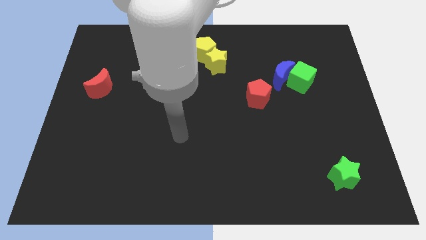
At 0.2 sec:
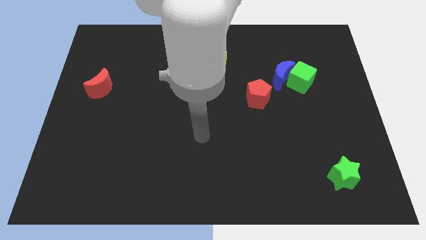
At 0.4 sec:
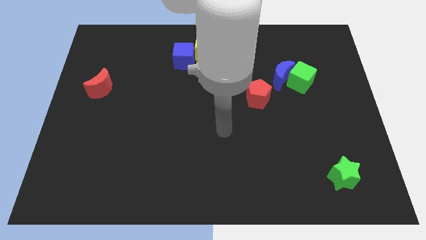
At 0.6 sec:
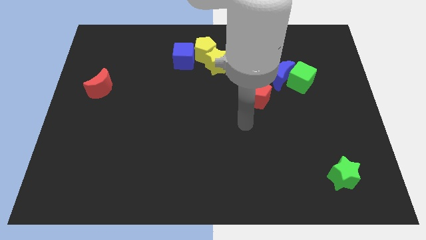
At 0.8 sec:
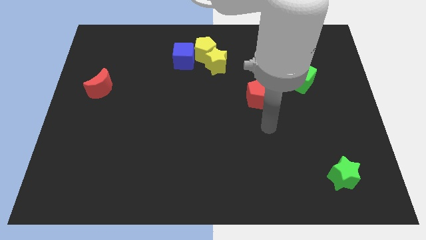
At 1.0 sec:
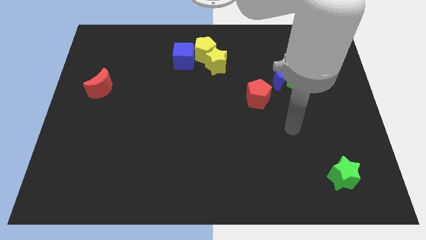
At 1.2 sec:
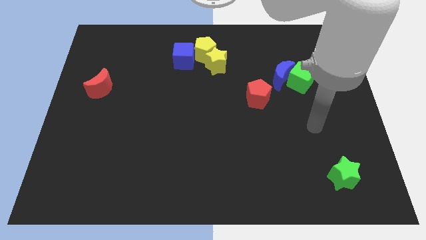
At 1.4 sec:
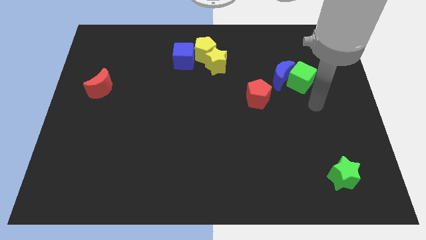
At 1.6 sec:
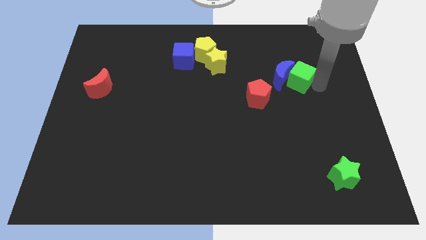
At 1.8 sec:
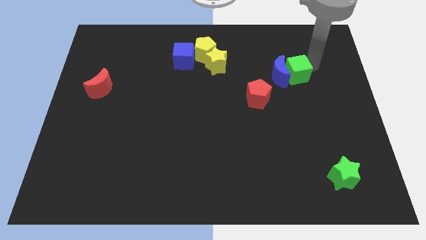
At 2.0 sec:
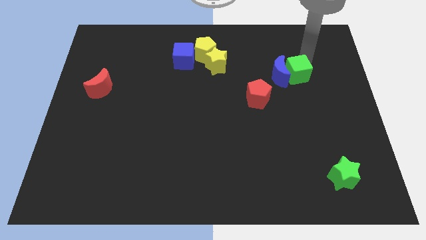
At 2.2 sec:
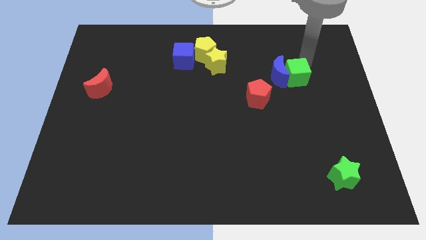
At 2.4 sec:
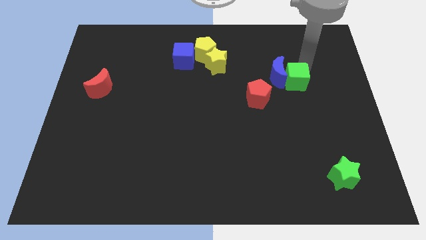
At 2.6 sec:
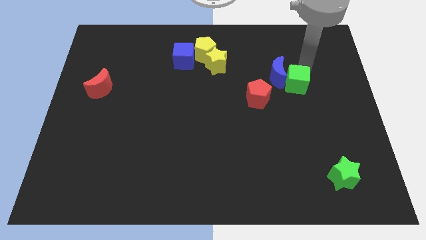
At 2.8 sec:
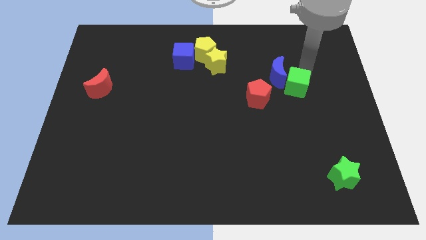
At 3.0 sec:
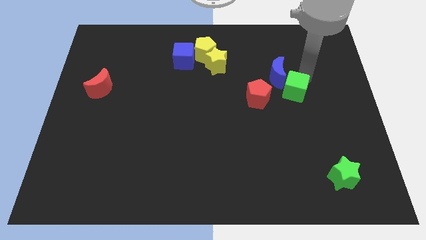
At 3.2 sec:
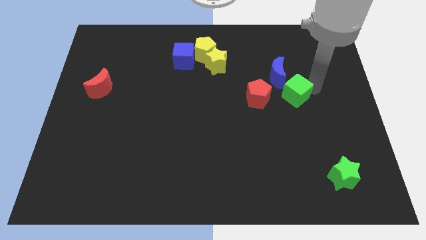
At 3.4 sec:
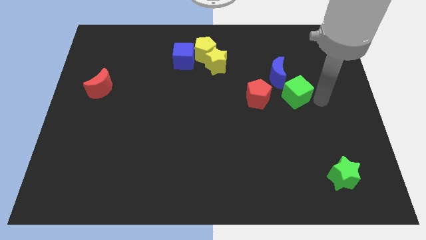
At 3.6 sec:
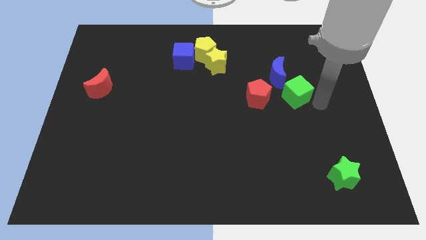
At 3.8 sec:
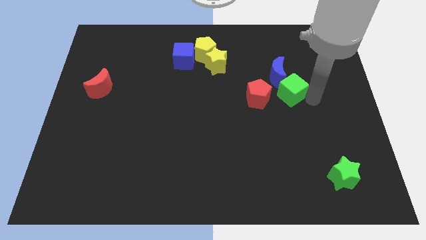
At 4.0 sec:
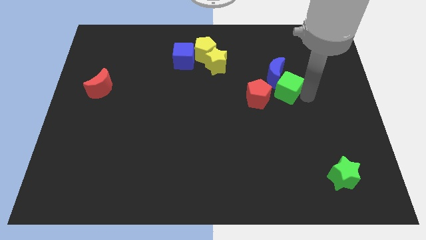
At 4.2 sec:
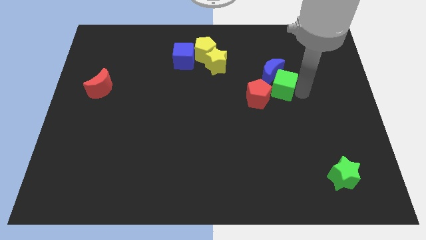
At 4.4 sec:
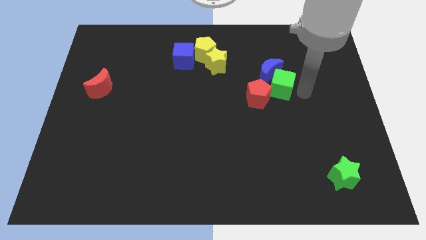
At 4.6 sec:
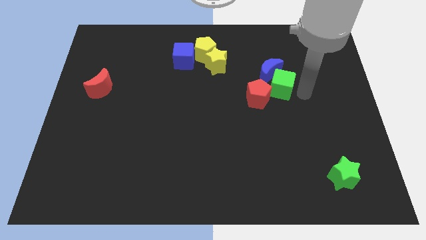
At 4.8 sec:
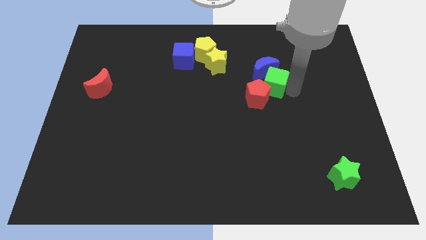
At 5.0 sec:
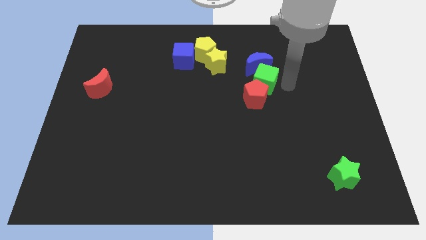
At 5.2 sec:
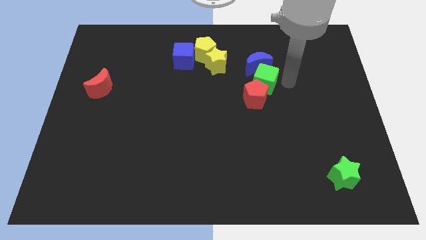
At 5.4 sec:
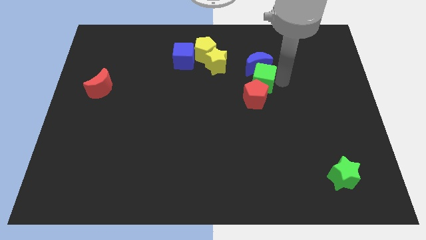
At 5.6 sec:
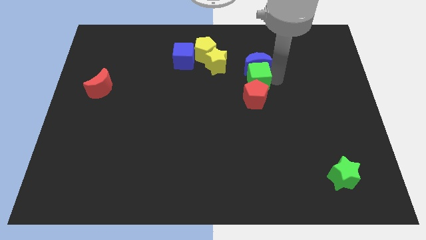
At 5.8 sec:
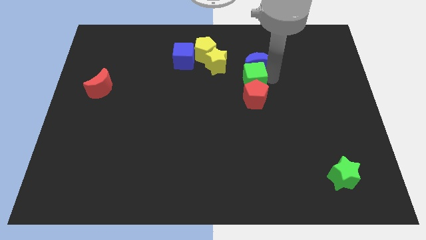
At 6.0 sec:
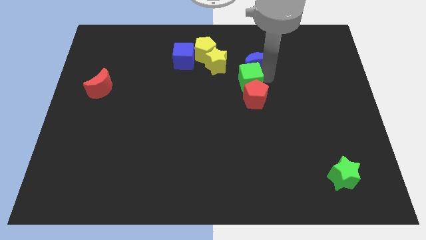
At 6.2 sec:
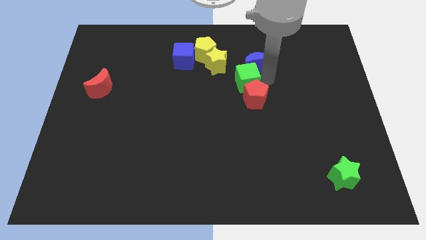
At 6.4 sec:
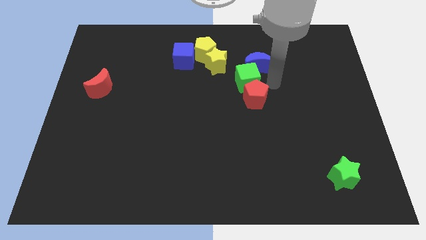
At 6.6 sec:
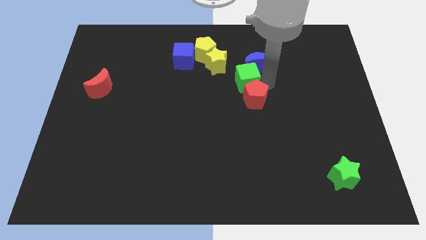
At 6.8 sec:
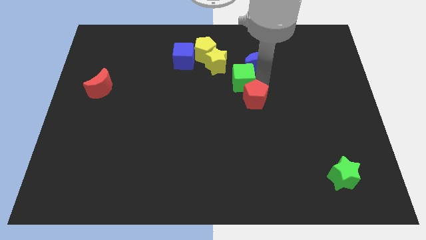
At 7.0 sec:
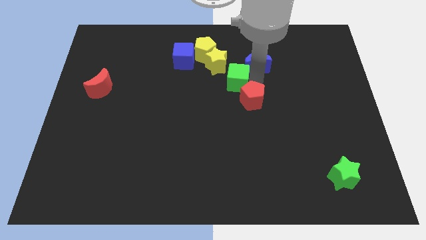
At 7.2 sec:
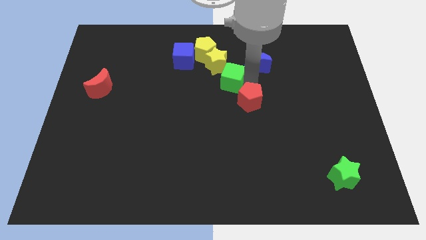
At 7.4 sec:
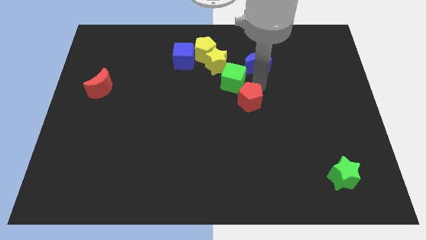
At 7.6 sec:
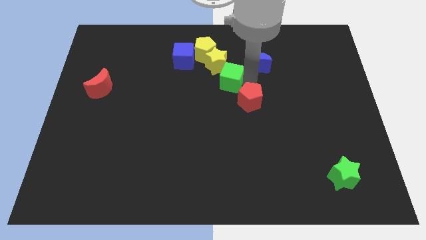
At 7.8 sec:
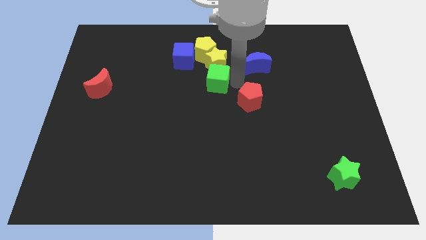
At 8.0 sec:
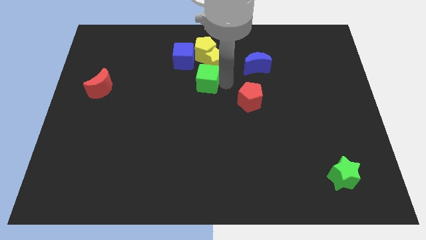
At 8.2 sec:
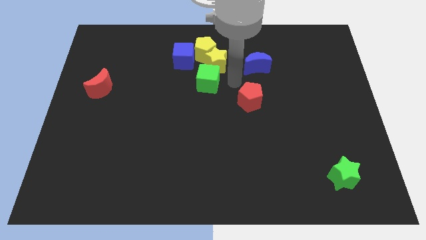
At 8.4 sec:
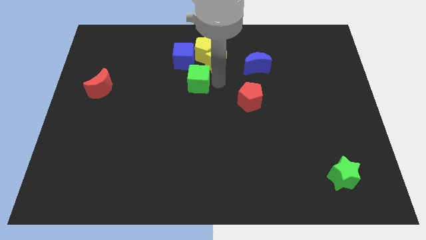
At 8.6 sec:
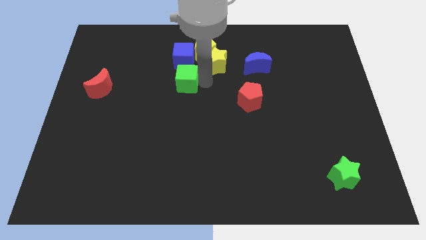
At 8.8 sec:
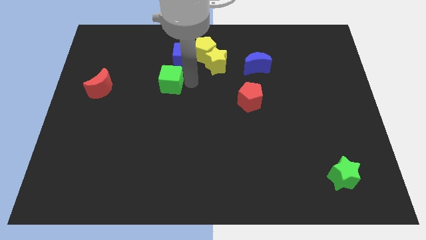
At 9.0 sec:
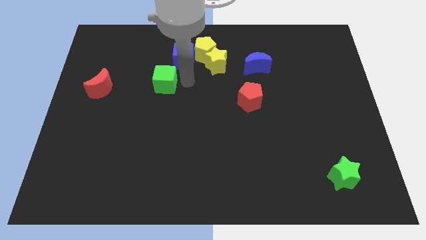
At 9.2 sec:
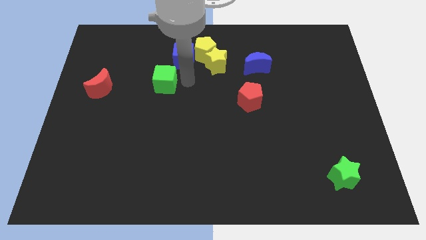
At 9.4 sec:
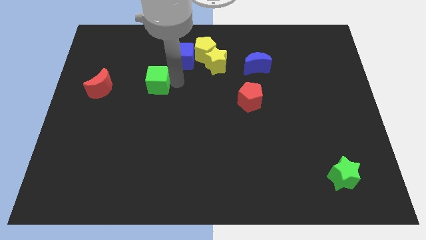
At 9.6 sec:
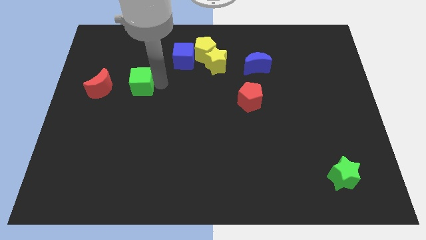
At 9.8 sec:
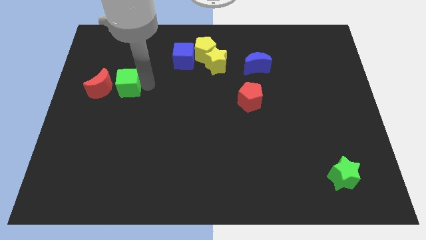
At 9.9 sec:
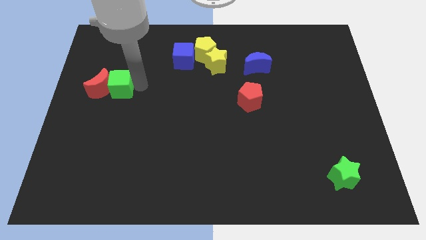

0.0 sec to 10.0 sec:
move the green cube to the red moon

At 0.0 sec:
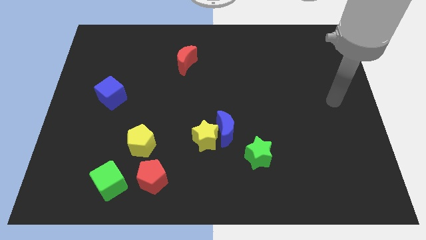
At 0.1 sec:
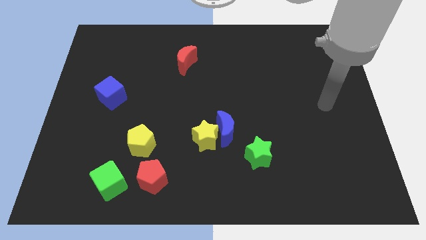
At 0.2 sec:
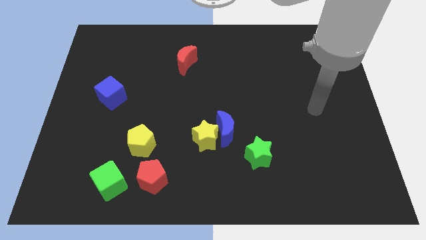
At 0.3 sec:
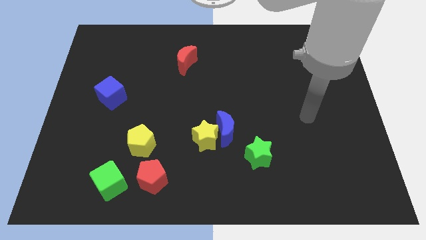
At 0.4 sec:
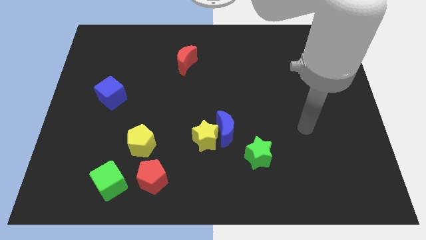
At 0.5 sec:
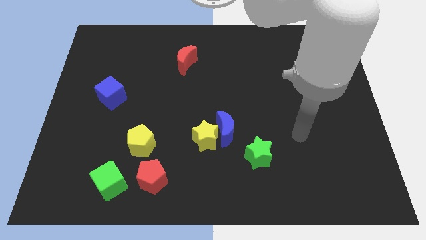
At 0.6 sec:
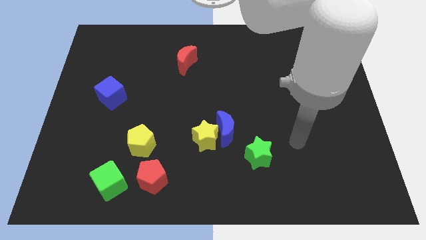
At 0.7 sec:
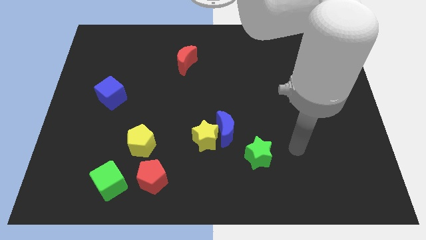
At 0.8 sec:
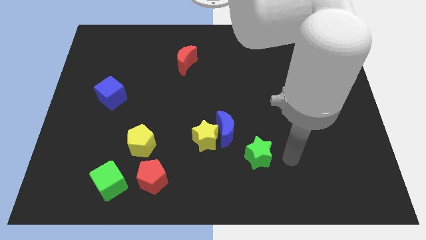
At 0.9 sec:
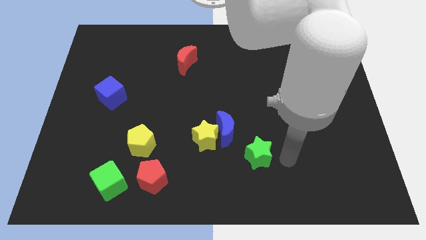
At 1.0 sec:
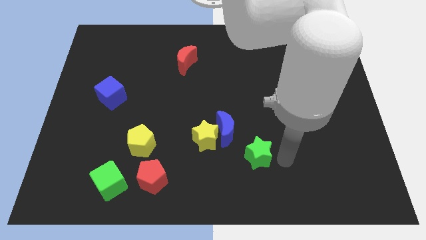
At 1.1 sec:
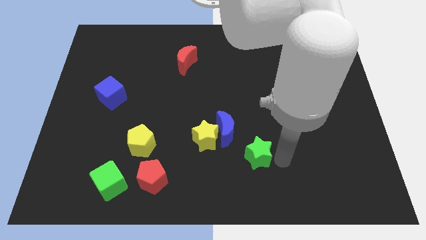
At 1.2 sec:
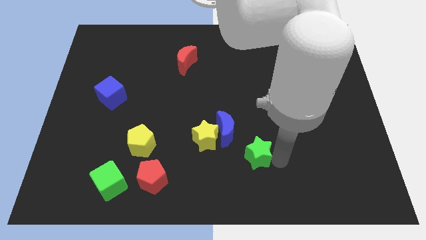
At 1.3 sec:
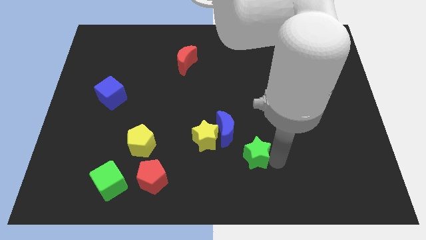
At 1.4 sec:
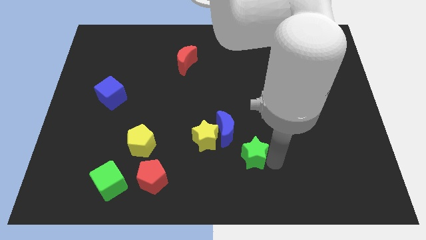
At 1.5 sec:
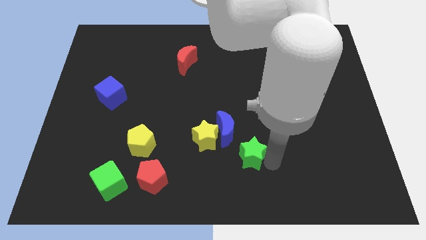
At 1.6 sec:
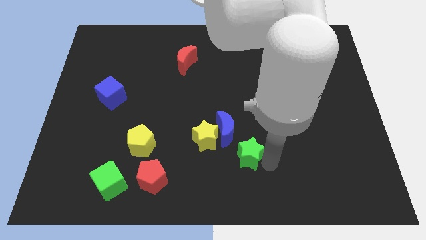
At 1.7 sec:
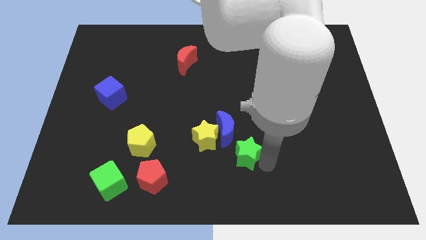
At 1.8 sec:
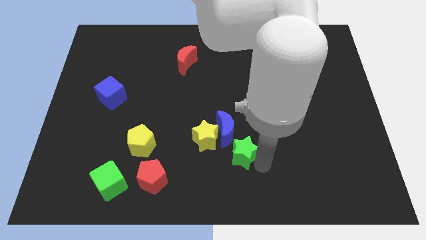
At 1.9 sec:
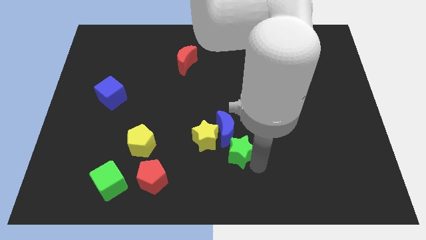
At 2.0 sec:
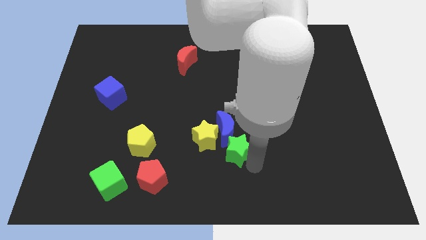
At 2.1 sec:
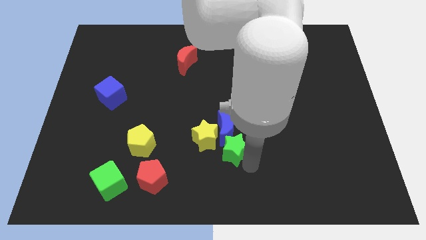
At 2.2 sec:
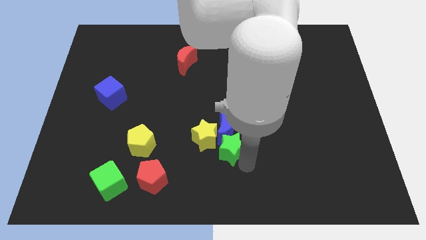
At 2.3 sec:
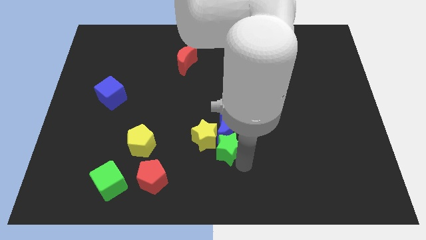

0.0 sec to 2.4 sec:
push the green star close to the yellow star
